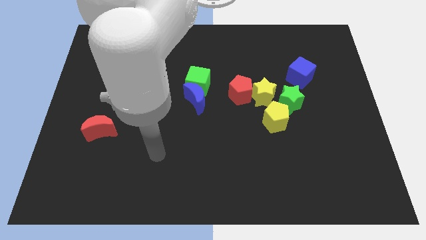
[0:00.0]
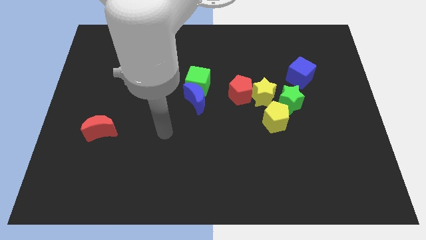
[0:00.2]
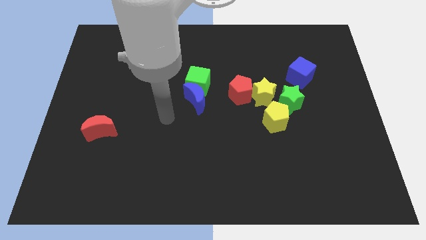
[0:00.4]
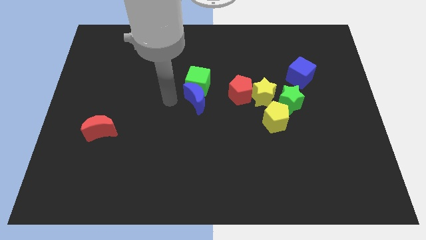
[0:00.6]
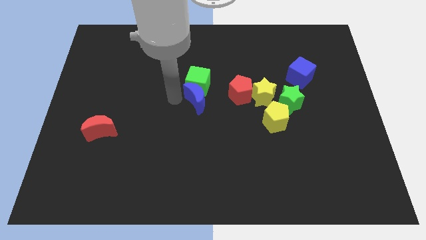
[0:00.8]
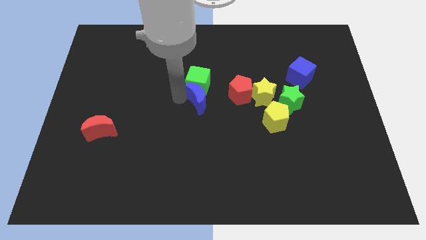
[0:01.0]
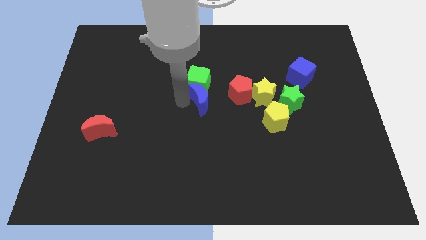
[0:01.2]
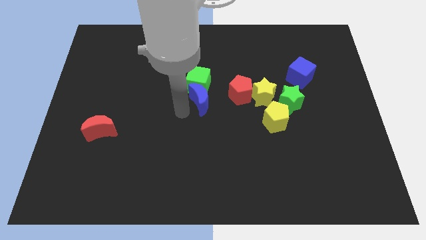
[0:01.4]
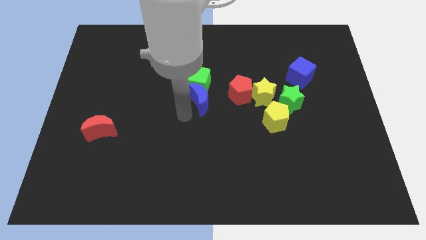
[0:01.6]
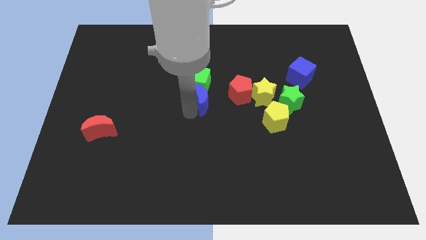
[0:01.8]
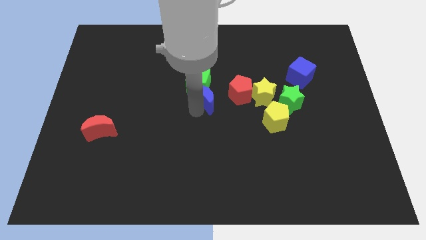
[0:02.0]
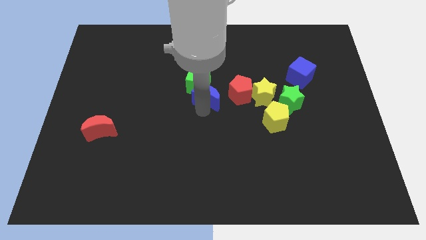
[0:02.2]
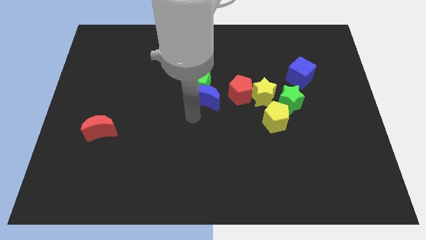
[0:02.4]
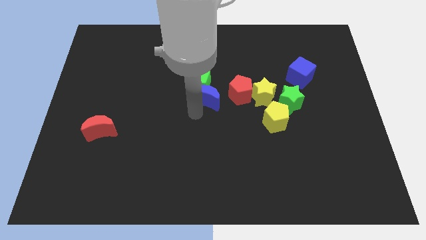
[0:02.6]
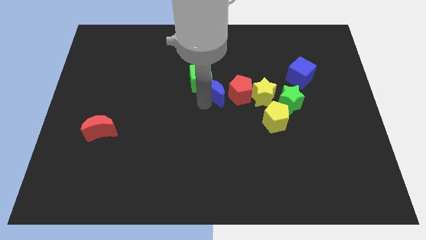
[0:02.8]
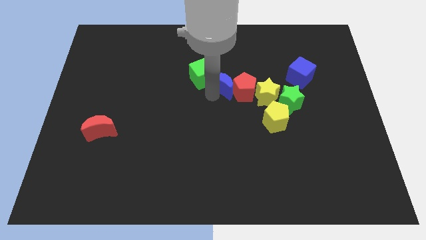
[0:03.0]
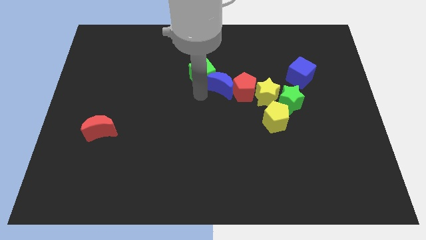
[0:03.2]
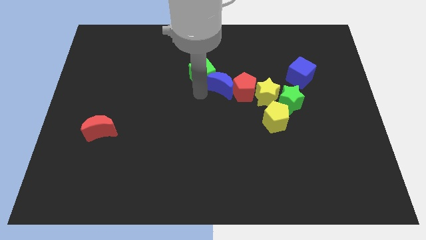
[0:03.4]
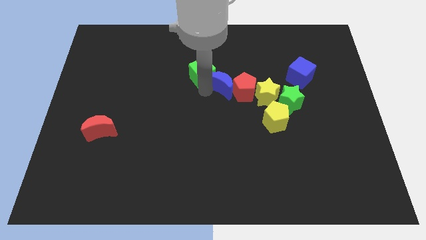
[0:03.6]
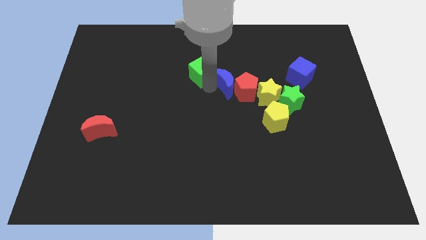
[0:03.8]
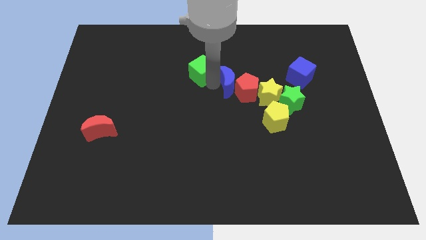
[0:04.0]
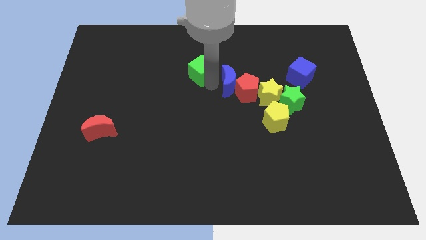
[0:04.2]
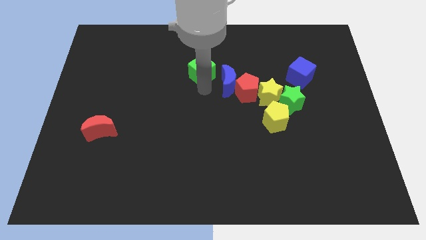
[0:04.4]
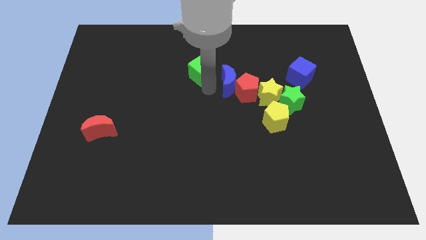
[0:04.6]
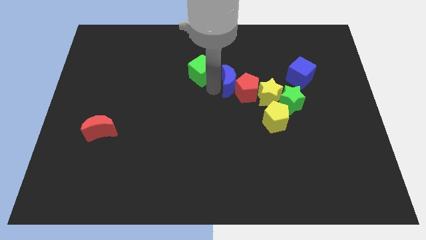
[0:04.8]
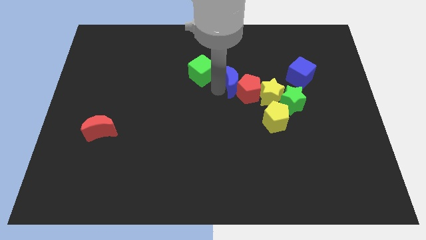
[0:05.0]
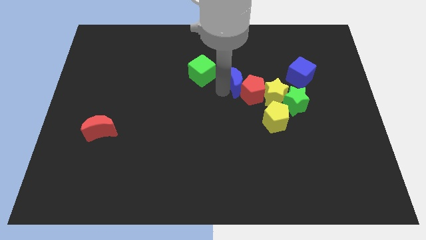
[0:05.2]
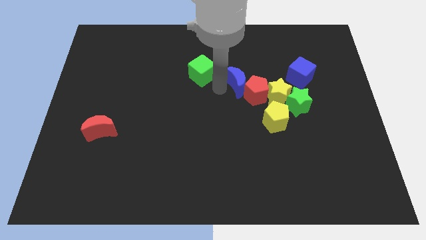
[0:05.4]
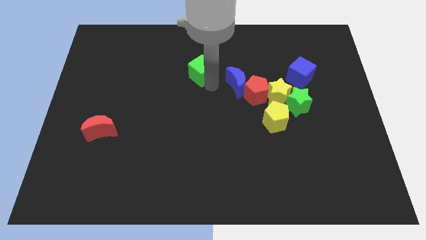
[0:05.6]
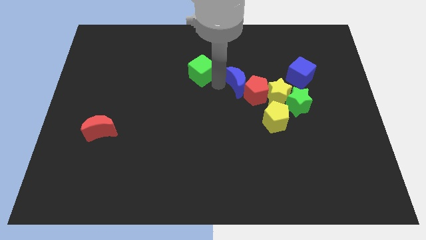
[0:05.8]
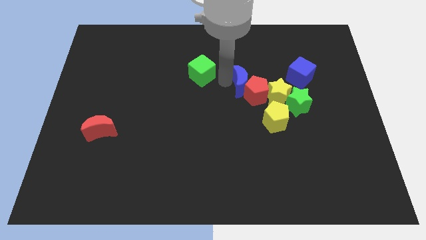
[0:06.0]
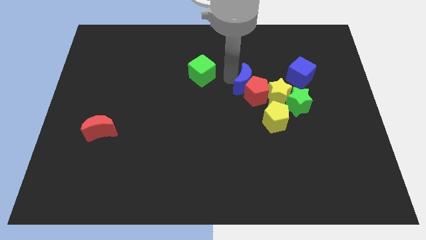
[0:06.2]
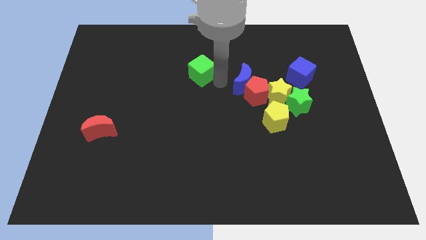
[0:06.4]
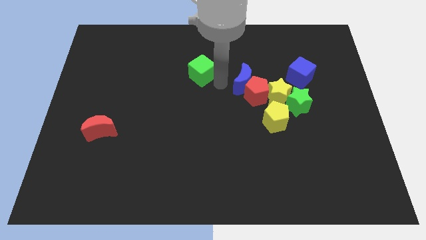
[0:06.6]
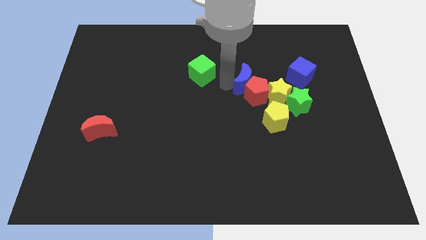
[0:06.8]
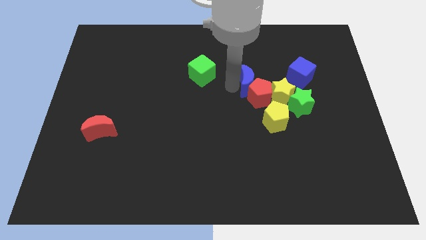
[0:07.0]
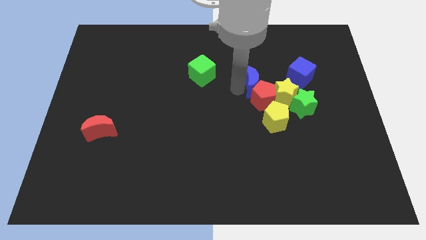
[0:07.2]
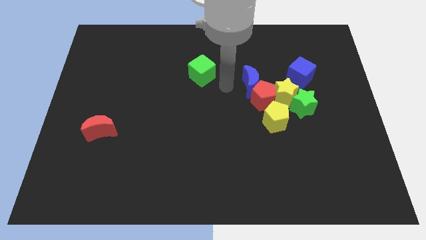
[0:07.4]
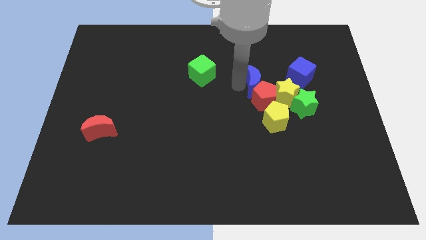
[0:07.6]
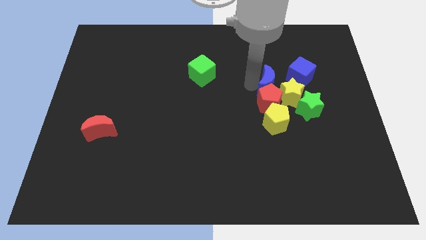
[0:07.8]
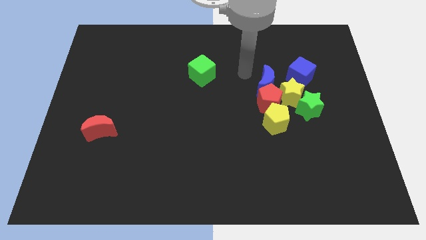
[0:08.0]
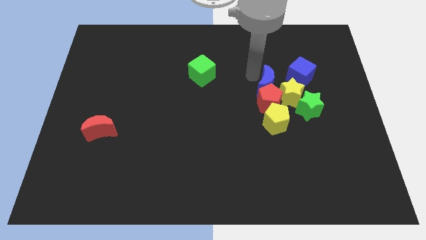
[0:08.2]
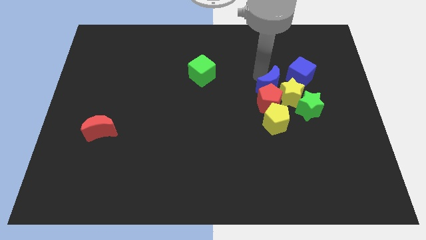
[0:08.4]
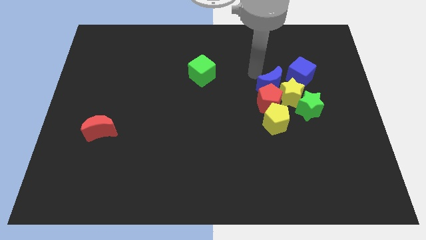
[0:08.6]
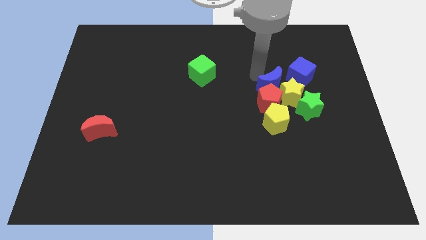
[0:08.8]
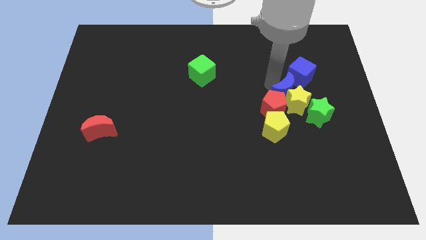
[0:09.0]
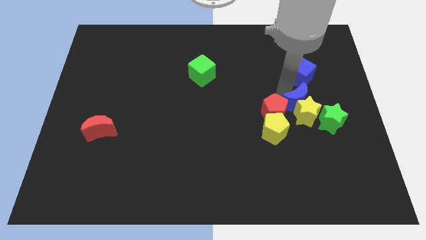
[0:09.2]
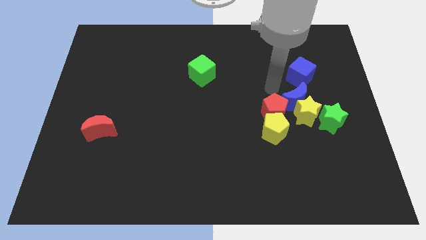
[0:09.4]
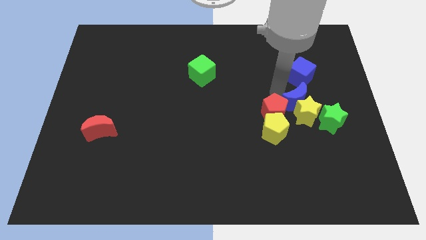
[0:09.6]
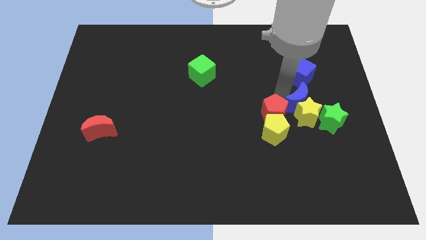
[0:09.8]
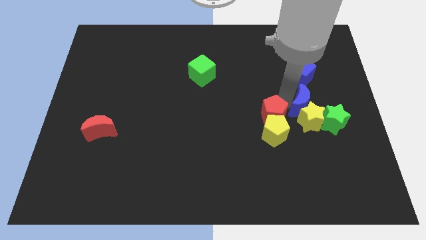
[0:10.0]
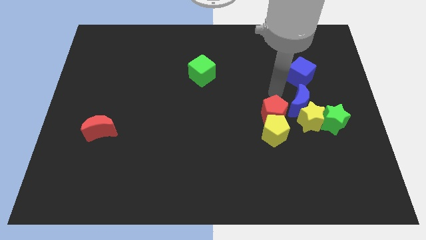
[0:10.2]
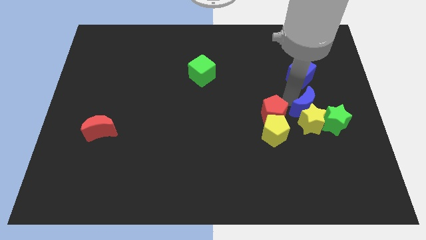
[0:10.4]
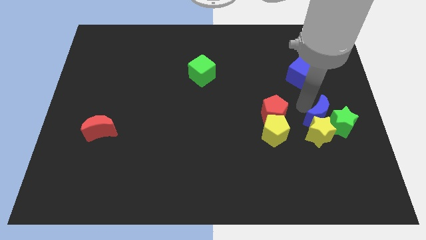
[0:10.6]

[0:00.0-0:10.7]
slide the blue moon towards the green star
